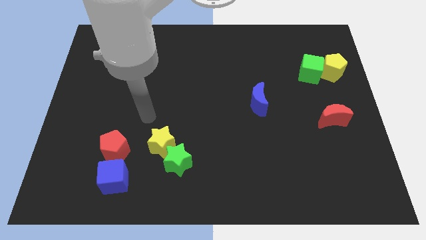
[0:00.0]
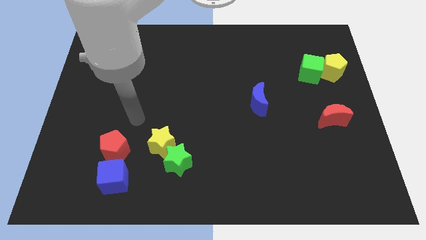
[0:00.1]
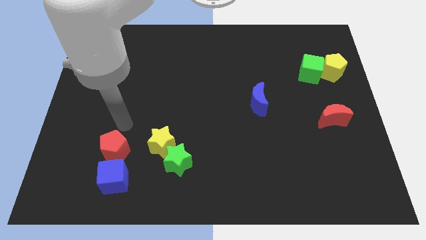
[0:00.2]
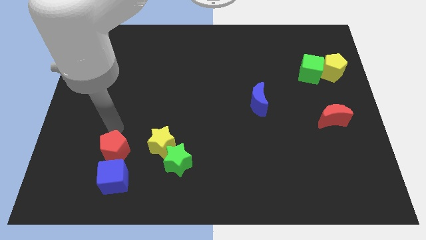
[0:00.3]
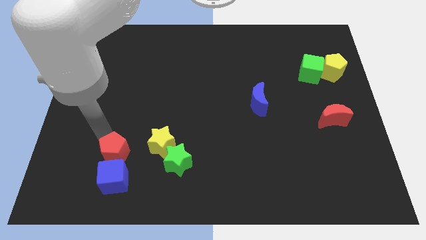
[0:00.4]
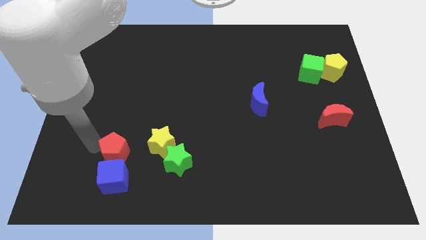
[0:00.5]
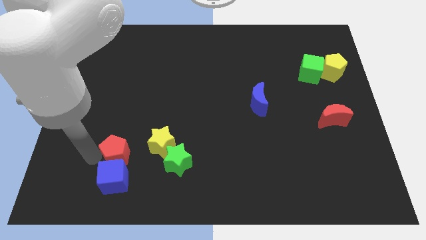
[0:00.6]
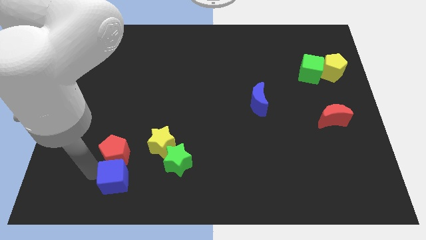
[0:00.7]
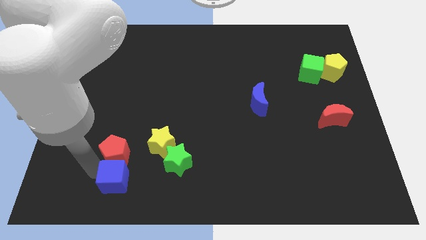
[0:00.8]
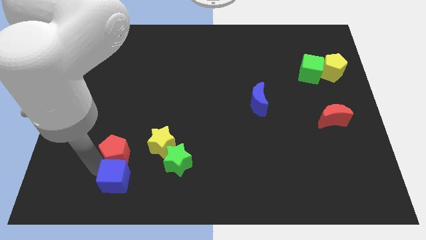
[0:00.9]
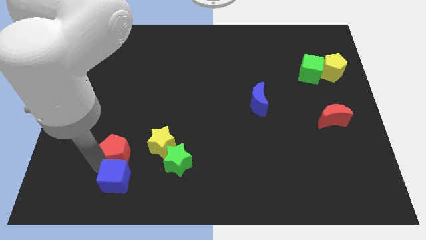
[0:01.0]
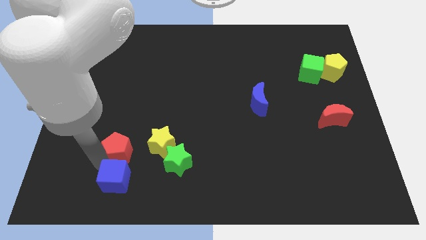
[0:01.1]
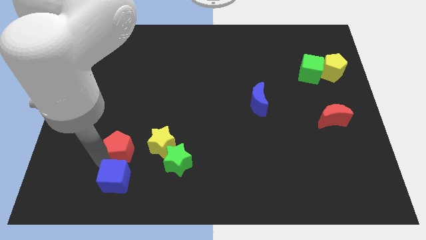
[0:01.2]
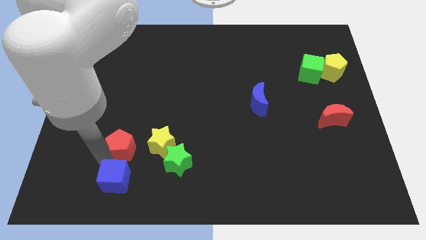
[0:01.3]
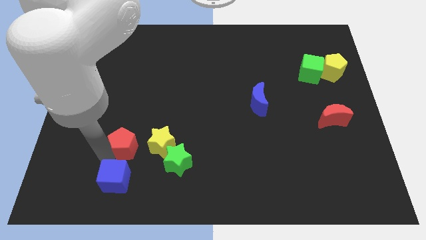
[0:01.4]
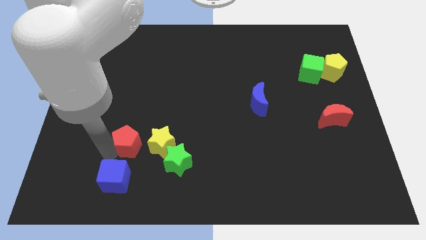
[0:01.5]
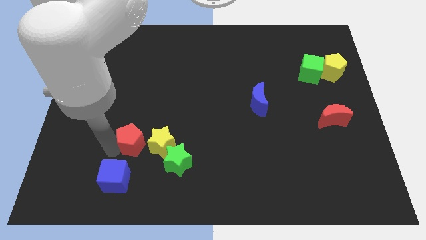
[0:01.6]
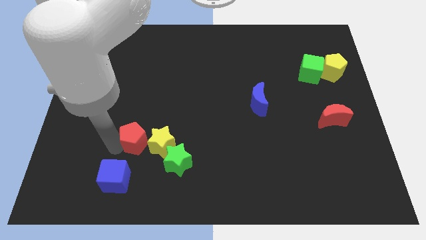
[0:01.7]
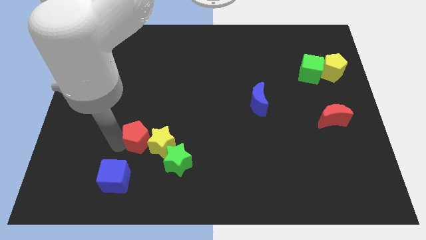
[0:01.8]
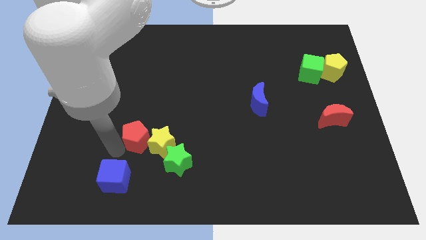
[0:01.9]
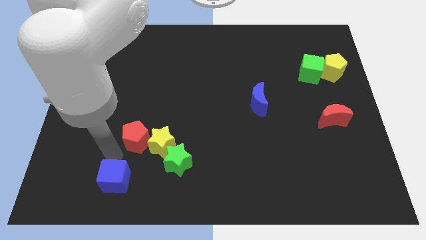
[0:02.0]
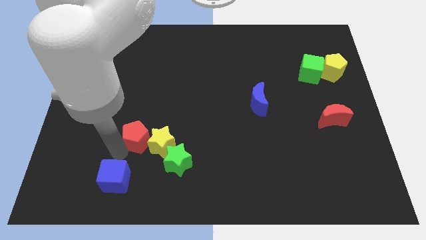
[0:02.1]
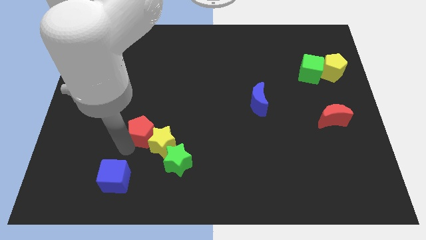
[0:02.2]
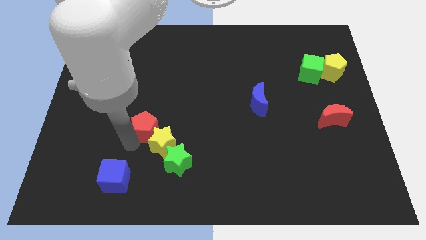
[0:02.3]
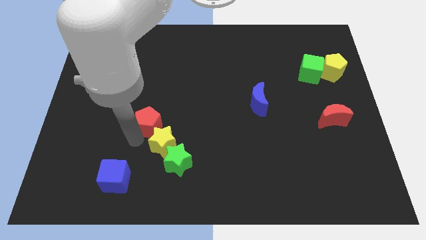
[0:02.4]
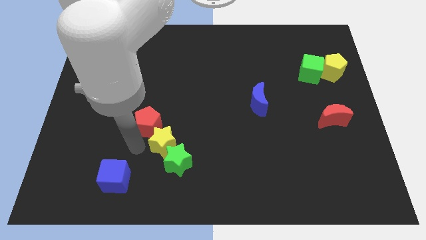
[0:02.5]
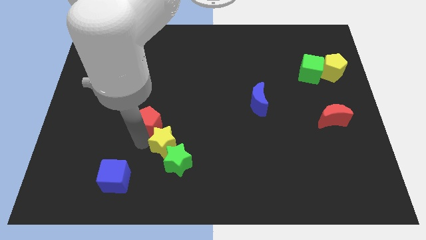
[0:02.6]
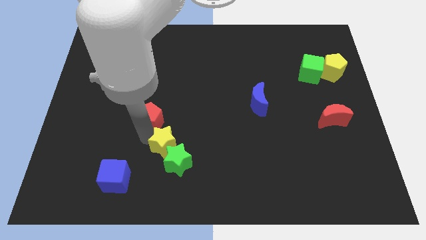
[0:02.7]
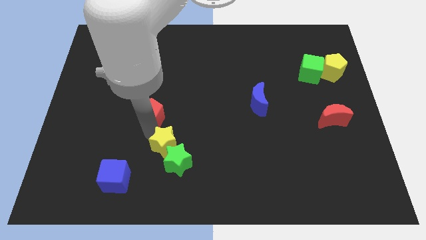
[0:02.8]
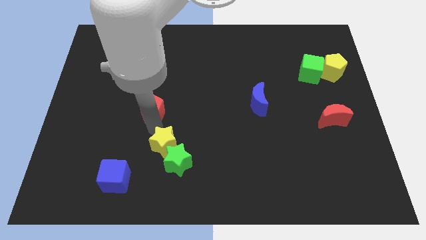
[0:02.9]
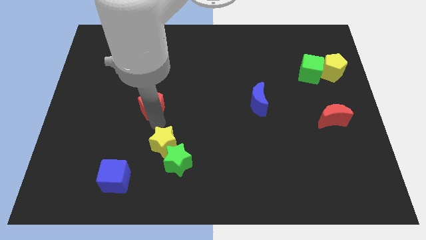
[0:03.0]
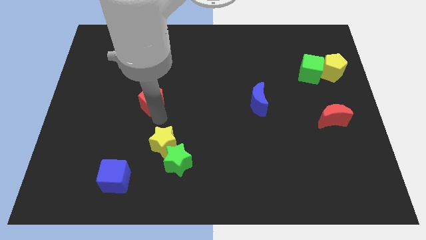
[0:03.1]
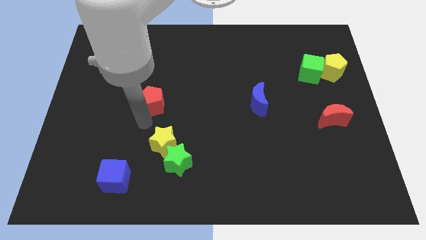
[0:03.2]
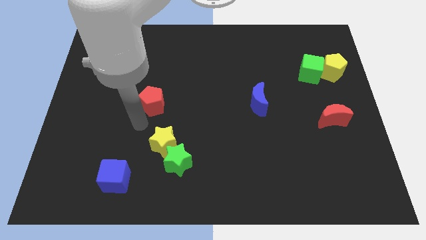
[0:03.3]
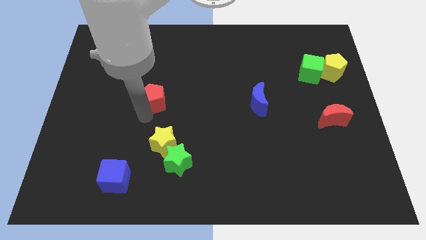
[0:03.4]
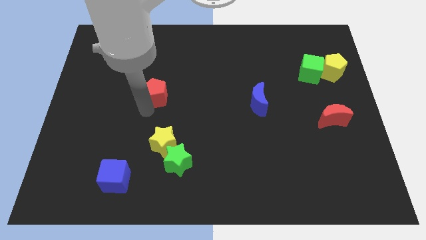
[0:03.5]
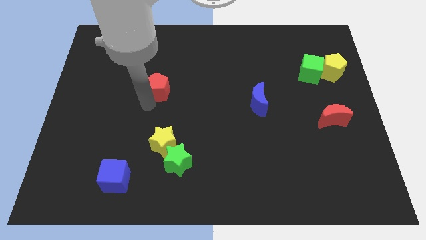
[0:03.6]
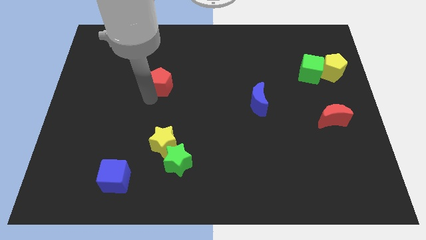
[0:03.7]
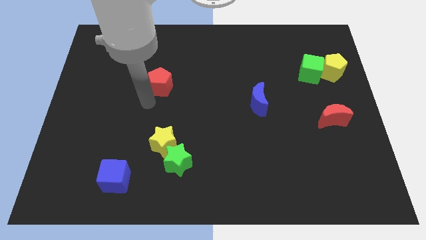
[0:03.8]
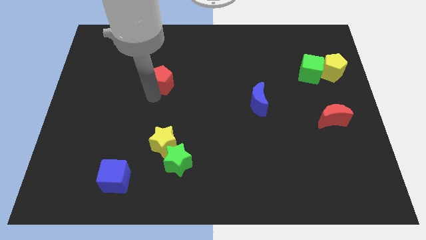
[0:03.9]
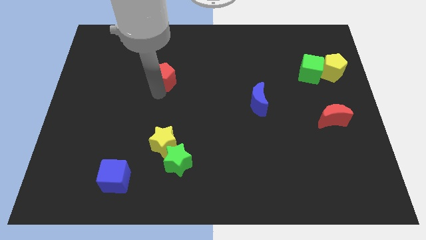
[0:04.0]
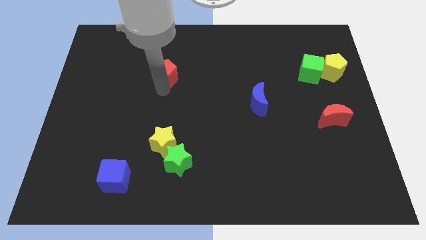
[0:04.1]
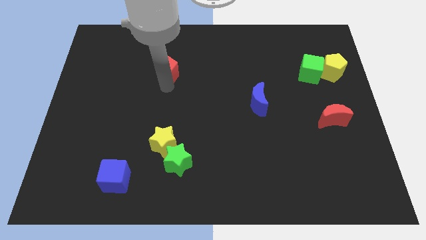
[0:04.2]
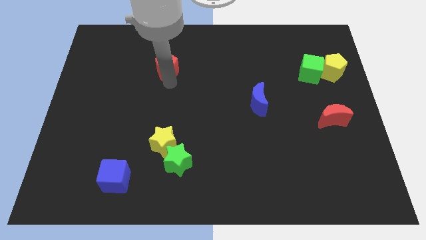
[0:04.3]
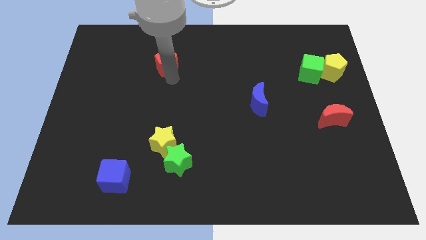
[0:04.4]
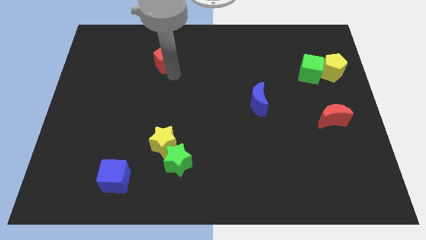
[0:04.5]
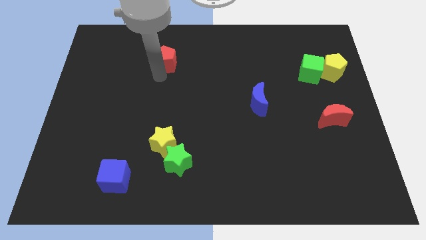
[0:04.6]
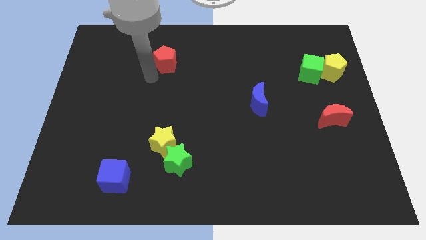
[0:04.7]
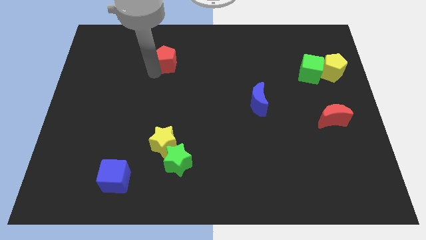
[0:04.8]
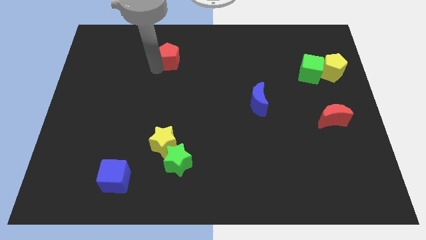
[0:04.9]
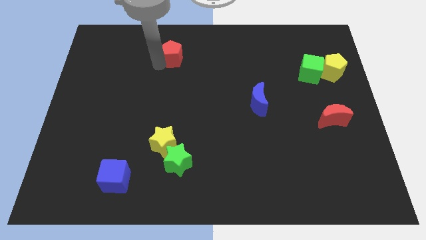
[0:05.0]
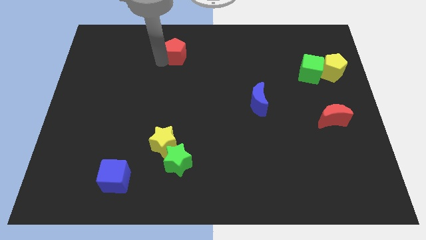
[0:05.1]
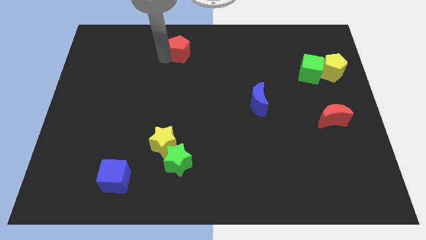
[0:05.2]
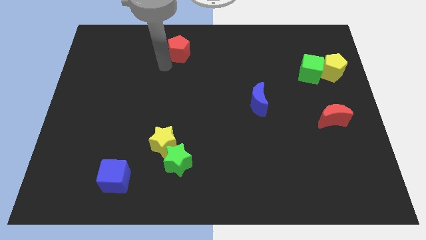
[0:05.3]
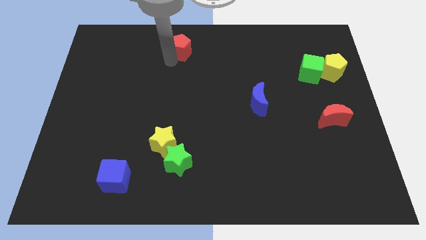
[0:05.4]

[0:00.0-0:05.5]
slide the red pentagon to the top side

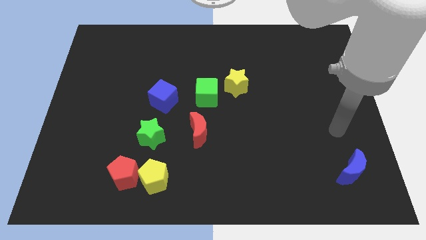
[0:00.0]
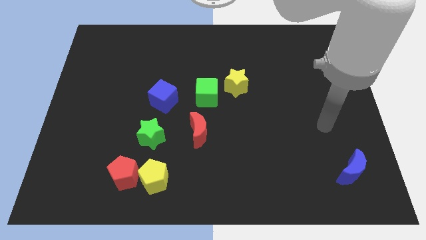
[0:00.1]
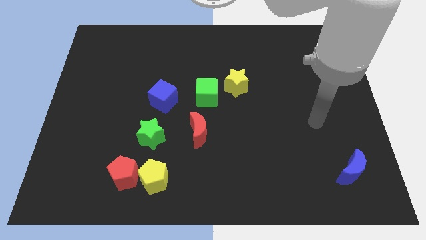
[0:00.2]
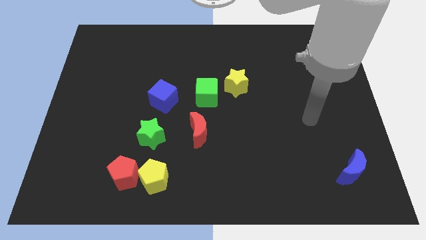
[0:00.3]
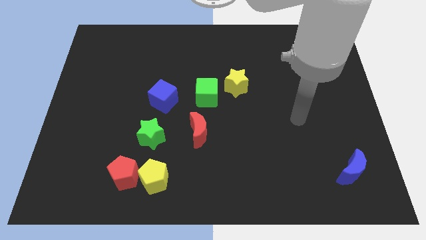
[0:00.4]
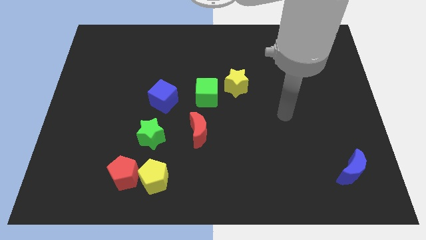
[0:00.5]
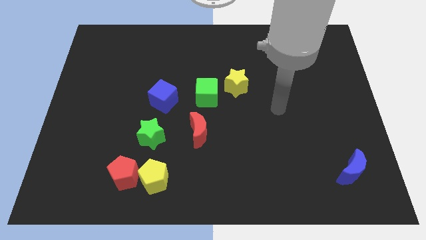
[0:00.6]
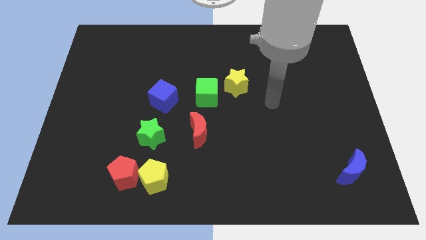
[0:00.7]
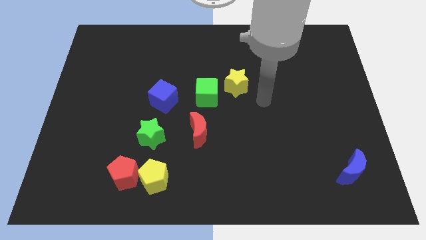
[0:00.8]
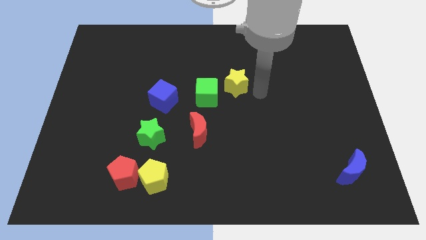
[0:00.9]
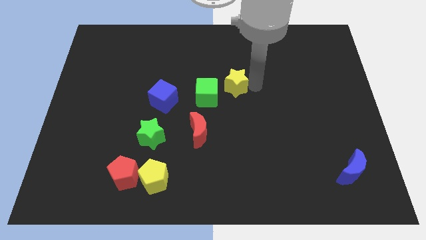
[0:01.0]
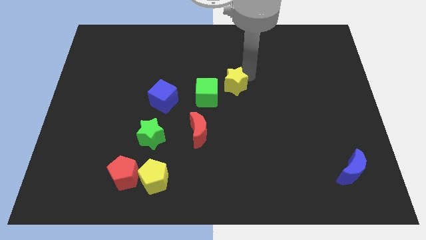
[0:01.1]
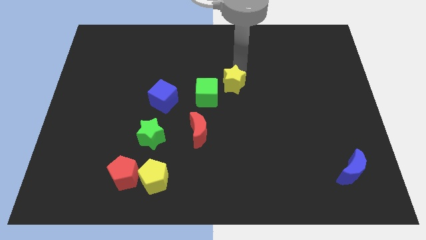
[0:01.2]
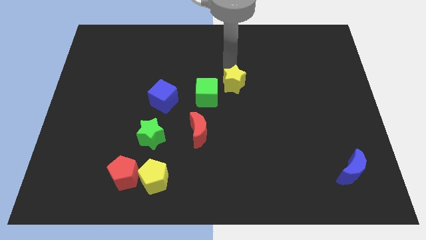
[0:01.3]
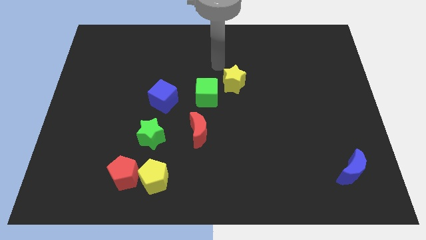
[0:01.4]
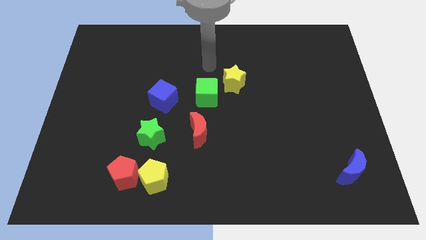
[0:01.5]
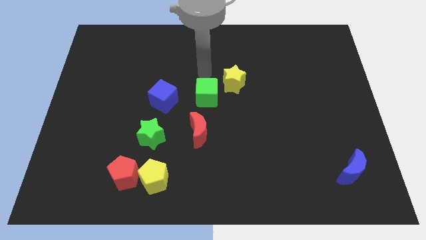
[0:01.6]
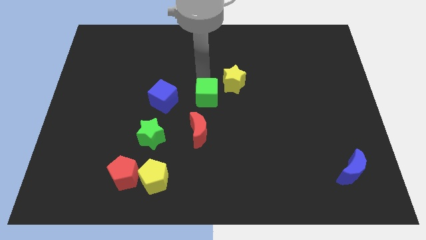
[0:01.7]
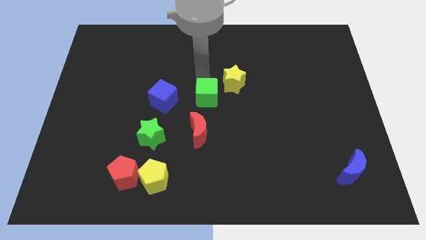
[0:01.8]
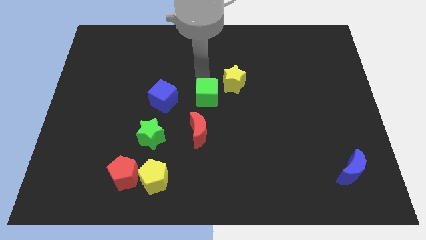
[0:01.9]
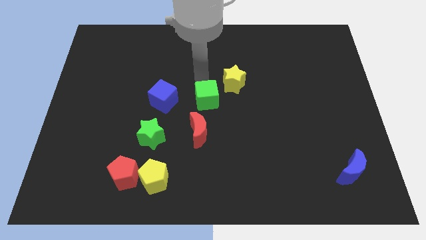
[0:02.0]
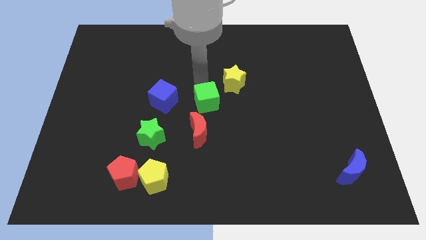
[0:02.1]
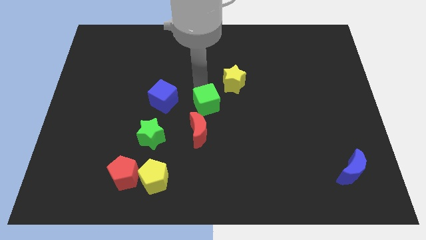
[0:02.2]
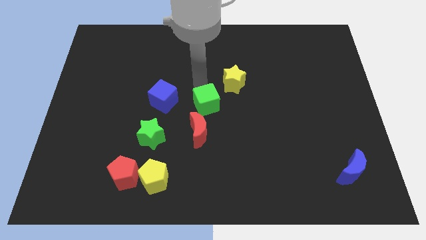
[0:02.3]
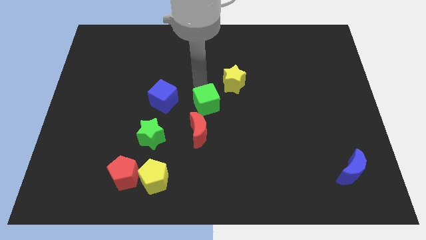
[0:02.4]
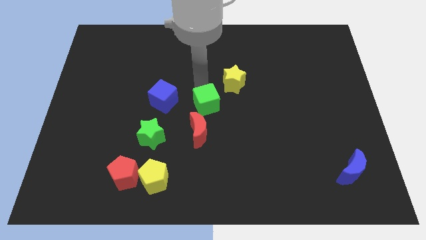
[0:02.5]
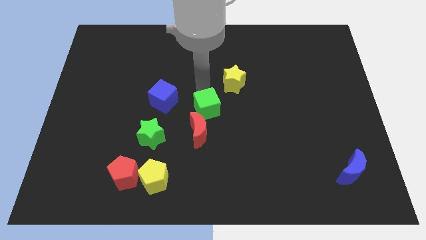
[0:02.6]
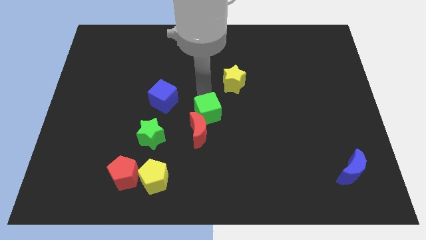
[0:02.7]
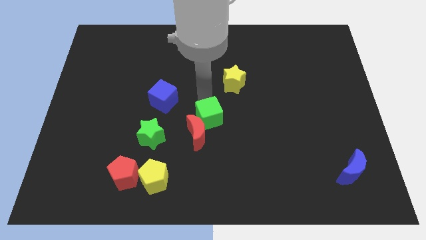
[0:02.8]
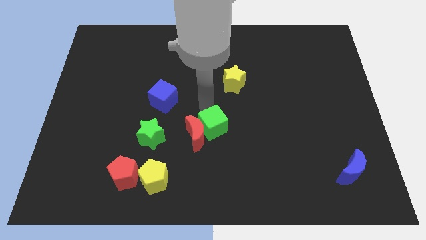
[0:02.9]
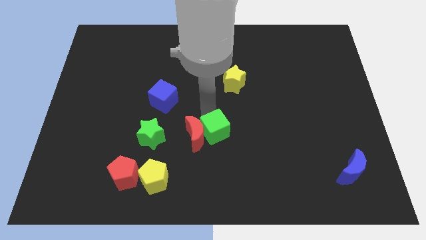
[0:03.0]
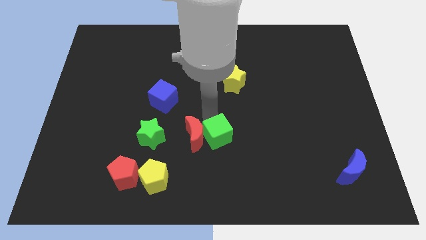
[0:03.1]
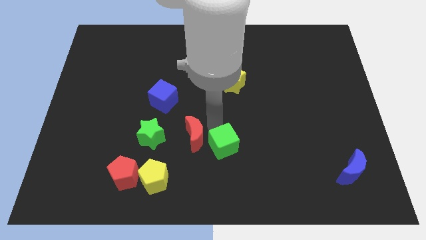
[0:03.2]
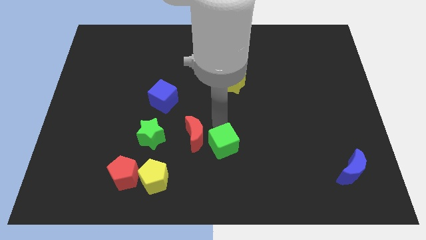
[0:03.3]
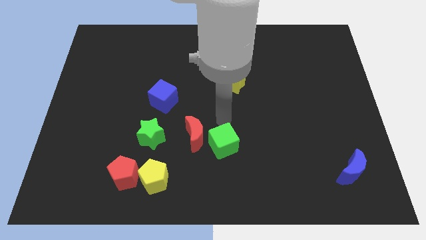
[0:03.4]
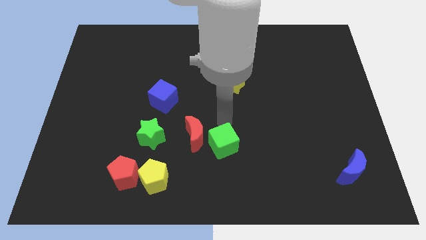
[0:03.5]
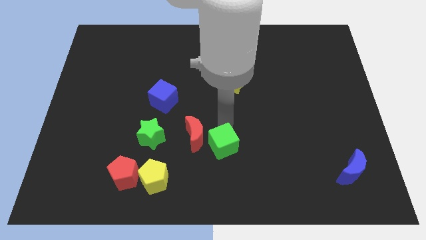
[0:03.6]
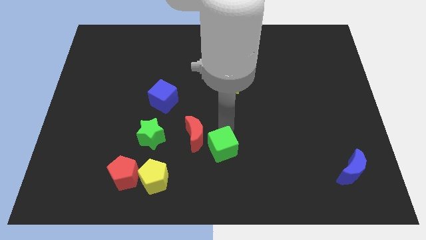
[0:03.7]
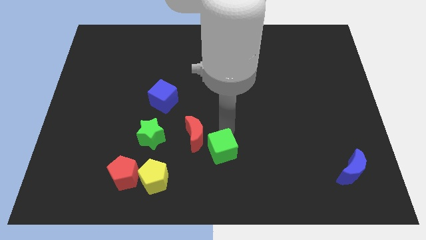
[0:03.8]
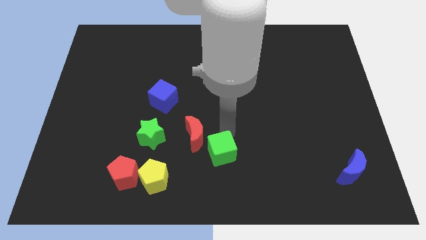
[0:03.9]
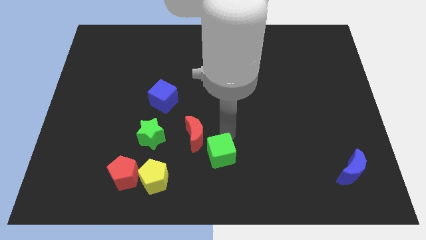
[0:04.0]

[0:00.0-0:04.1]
put the green cube to the bottom side
